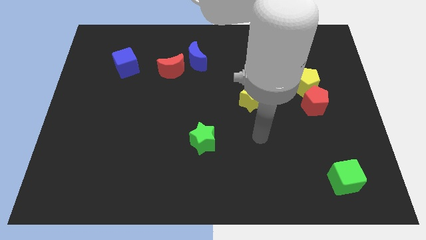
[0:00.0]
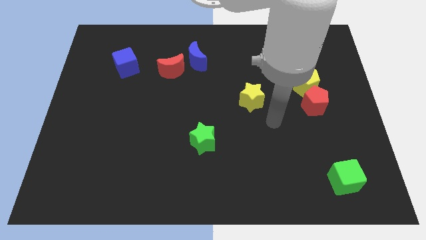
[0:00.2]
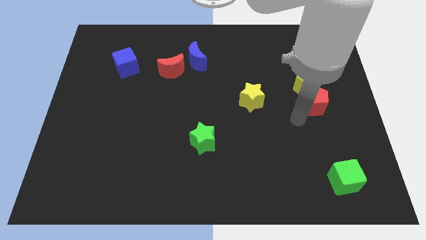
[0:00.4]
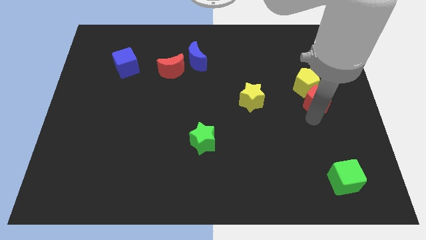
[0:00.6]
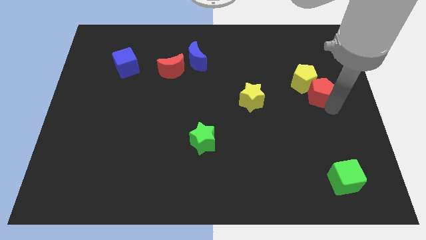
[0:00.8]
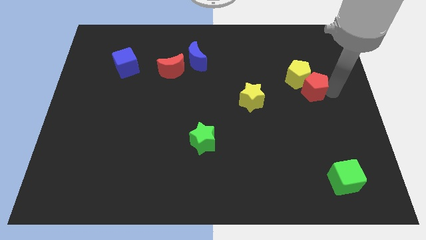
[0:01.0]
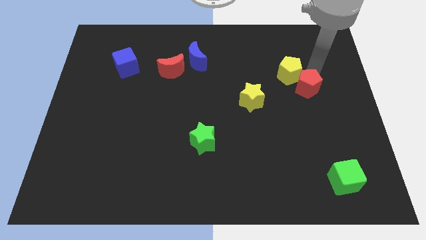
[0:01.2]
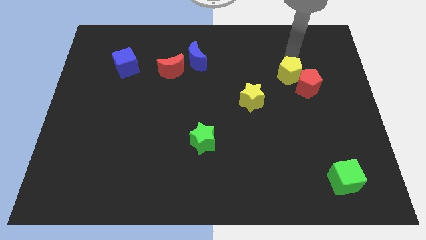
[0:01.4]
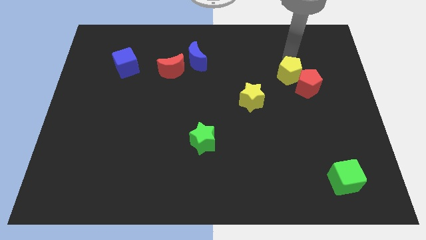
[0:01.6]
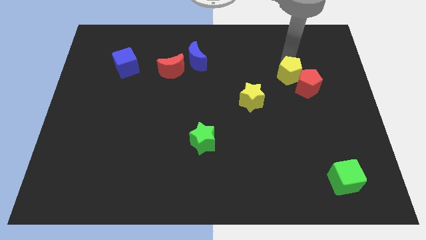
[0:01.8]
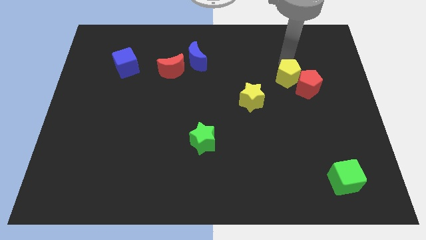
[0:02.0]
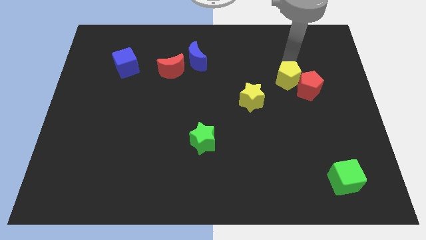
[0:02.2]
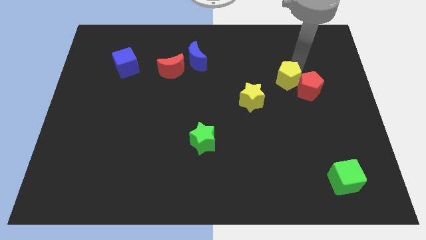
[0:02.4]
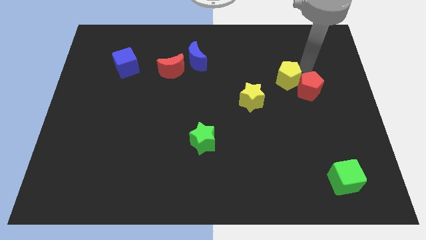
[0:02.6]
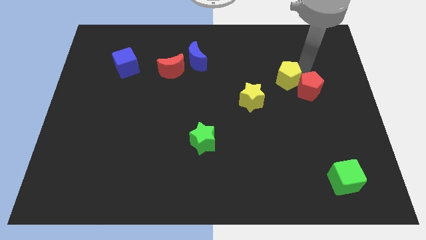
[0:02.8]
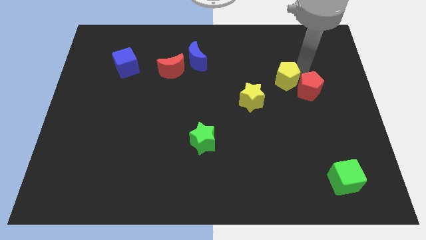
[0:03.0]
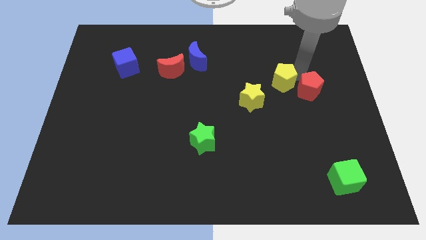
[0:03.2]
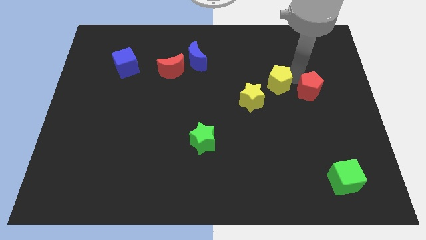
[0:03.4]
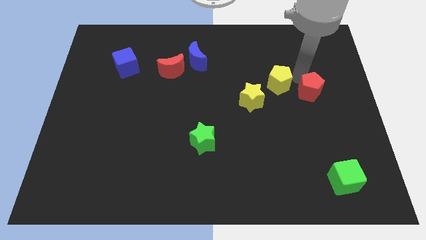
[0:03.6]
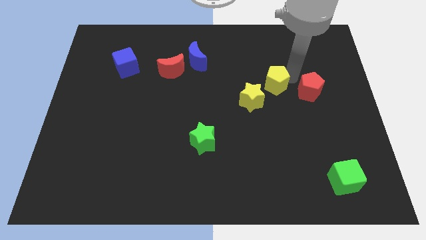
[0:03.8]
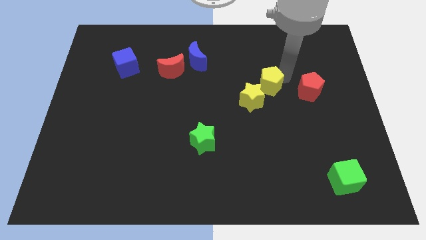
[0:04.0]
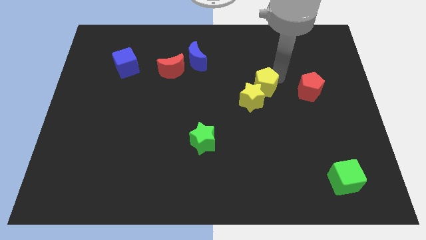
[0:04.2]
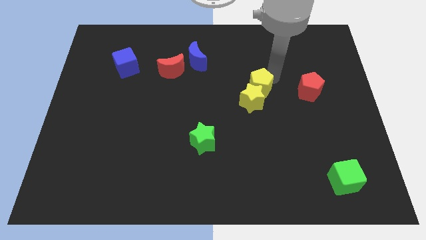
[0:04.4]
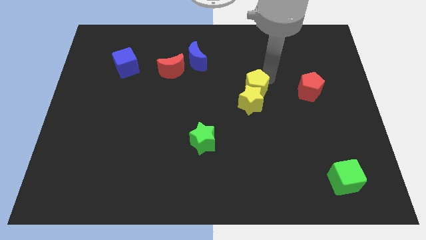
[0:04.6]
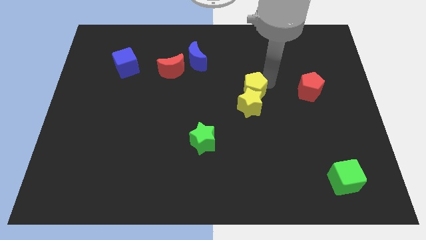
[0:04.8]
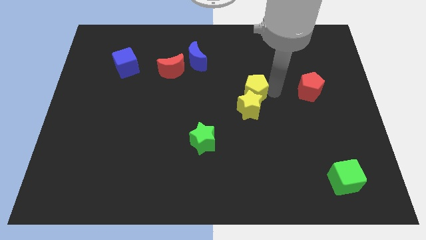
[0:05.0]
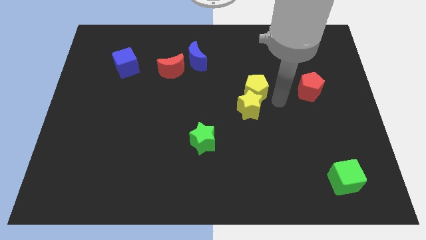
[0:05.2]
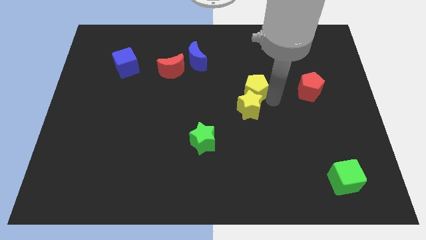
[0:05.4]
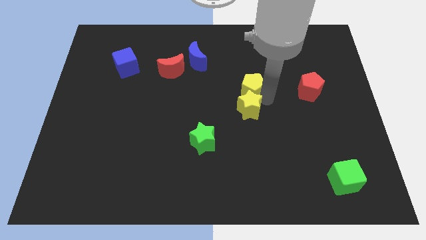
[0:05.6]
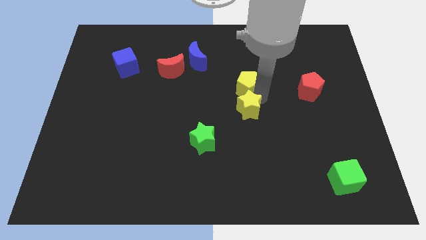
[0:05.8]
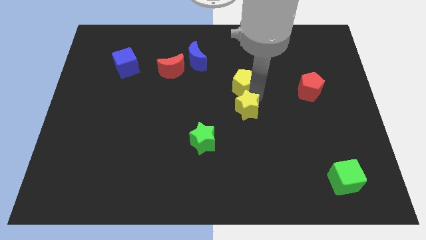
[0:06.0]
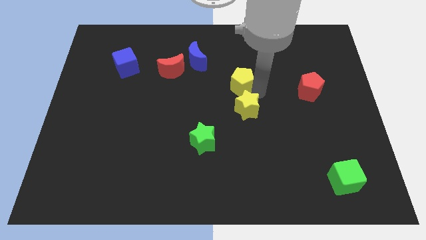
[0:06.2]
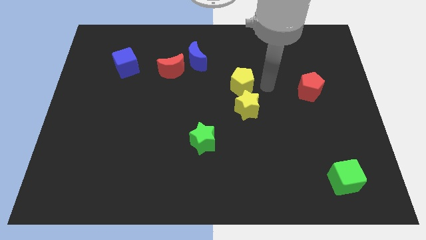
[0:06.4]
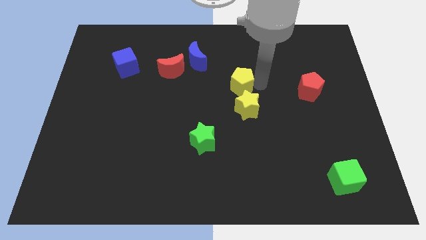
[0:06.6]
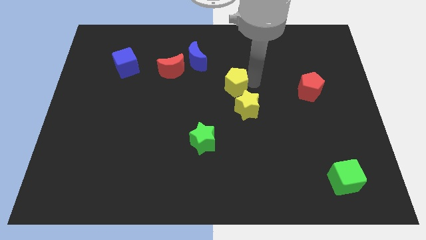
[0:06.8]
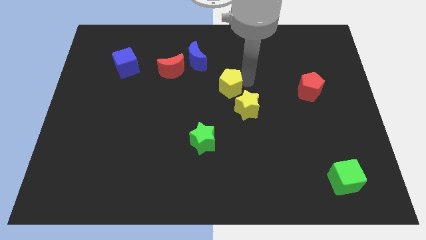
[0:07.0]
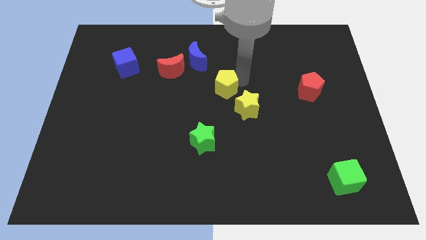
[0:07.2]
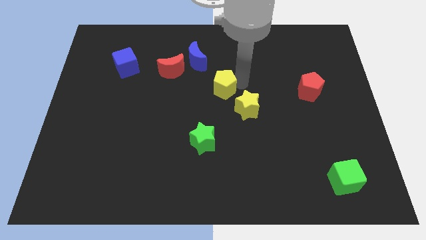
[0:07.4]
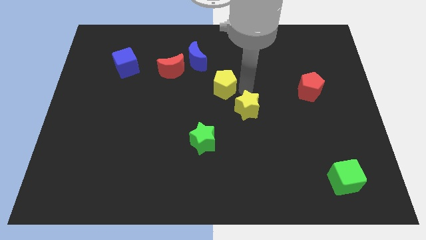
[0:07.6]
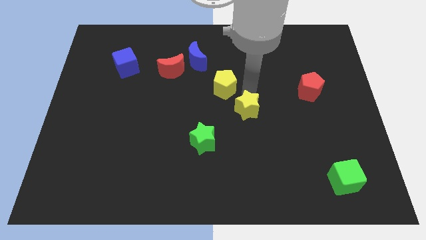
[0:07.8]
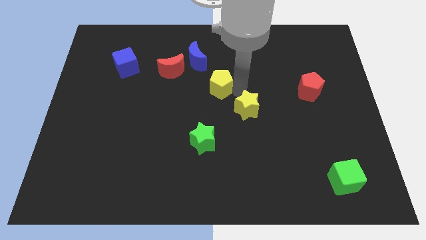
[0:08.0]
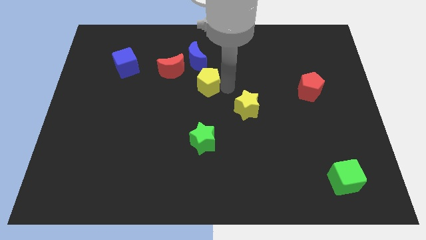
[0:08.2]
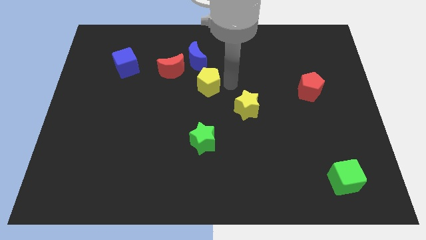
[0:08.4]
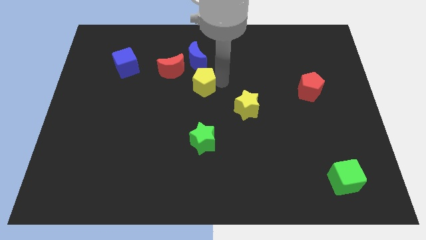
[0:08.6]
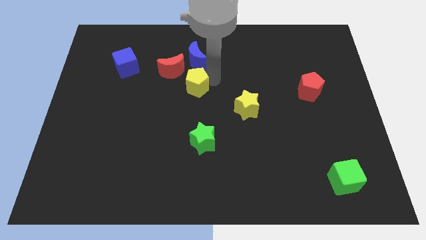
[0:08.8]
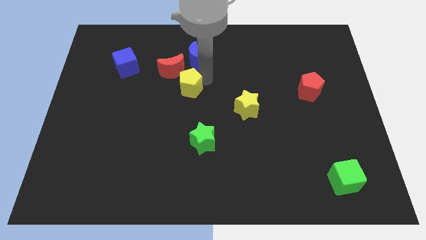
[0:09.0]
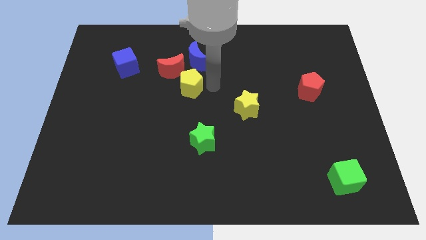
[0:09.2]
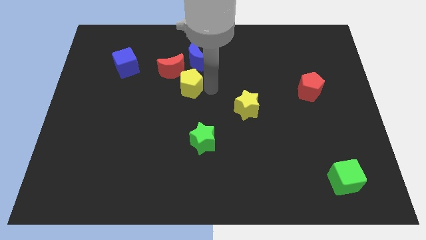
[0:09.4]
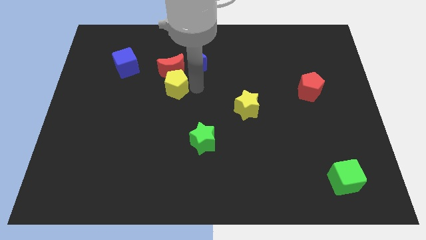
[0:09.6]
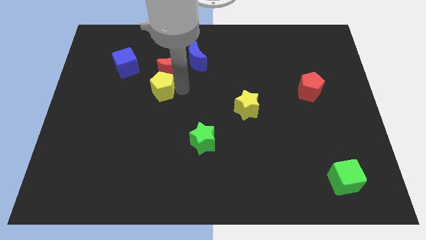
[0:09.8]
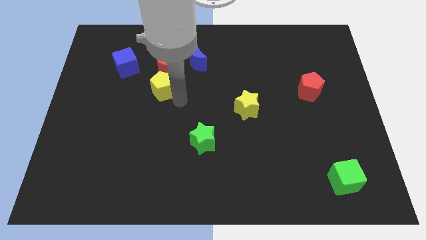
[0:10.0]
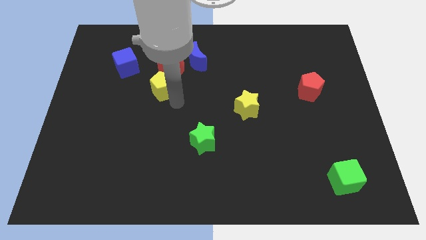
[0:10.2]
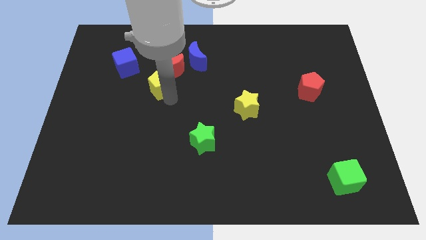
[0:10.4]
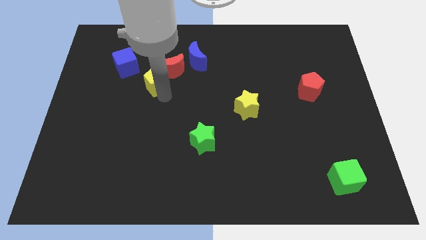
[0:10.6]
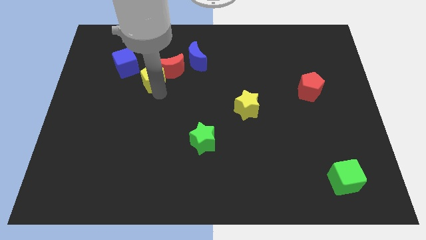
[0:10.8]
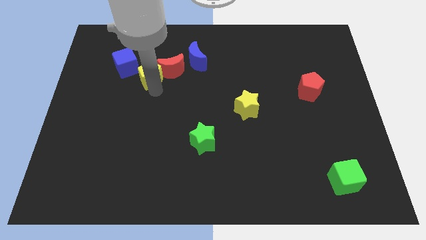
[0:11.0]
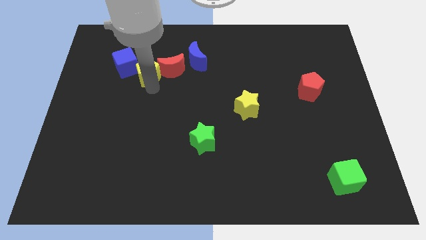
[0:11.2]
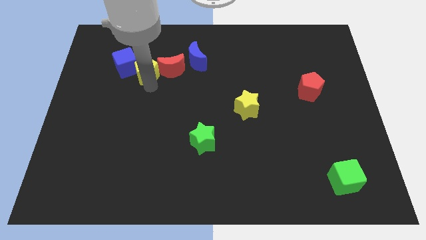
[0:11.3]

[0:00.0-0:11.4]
move the yellow pentagon to the blue cube

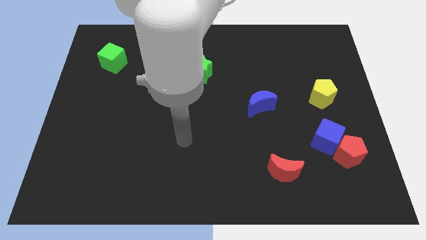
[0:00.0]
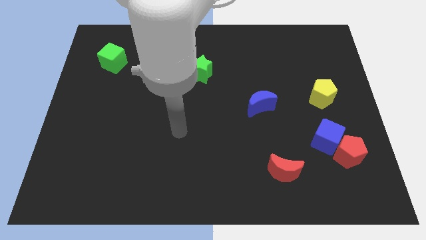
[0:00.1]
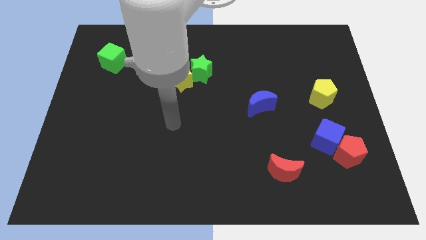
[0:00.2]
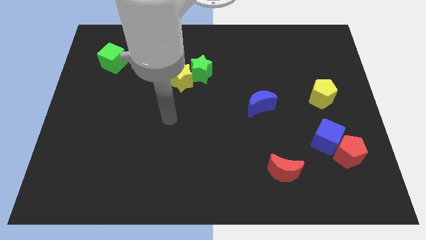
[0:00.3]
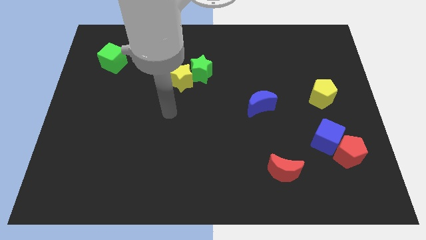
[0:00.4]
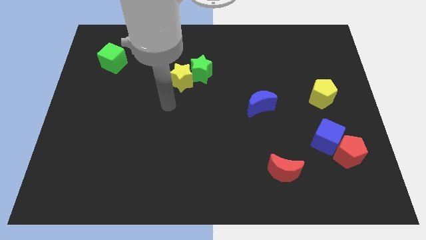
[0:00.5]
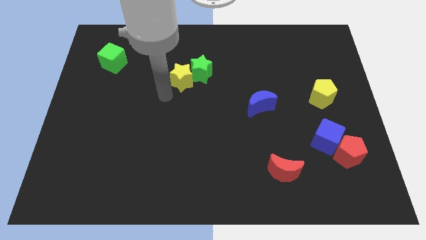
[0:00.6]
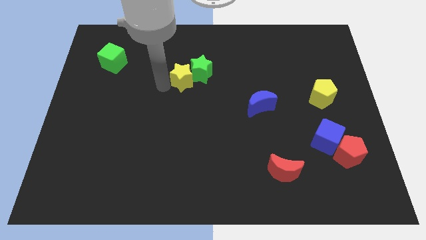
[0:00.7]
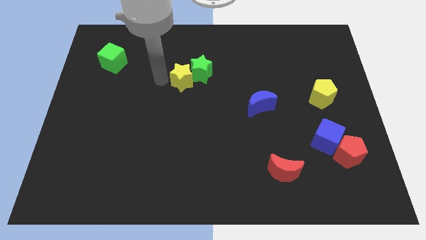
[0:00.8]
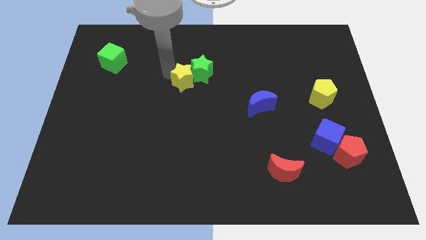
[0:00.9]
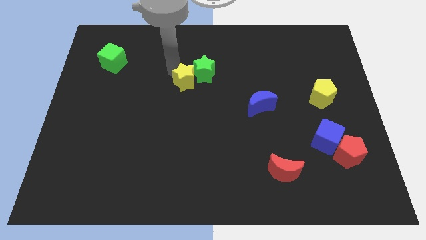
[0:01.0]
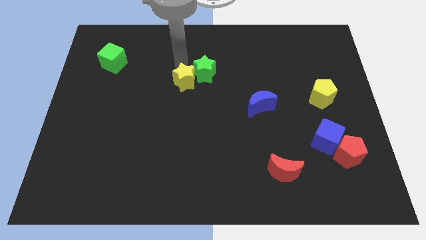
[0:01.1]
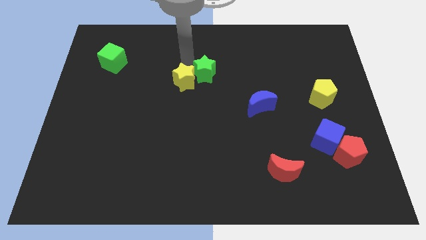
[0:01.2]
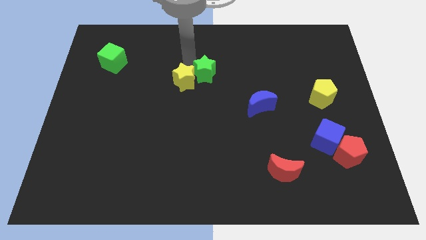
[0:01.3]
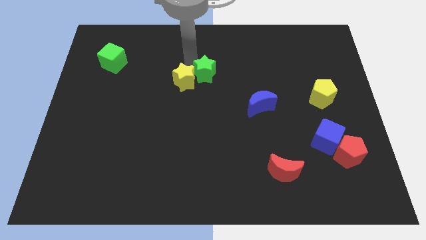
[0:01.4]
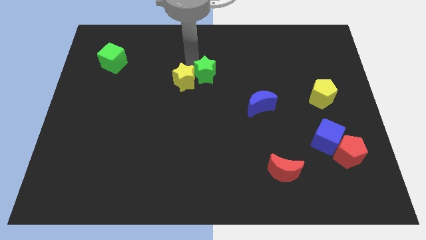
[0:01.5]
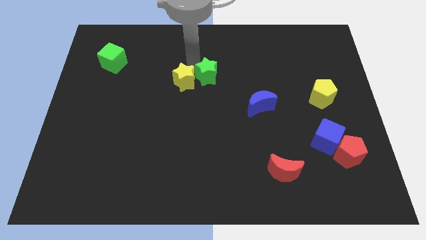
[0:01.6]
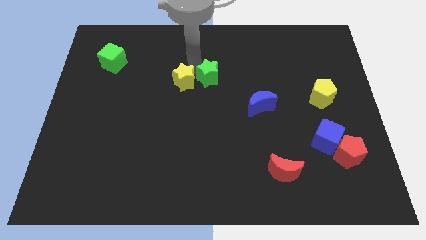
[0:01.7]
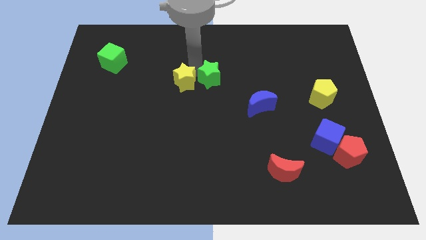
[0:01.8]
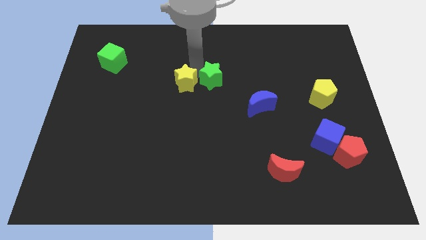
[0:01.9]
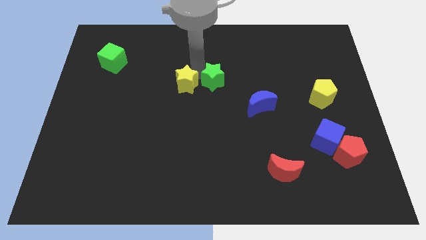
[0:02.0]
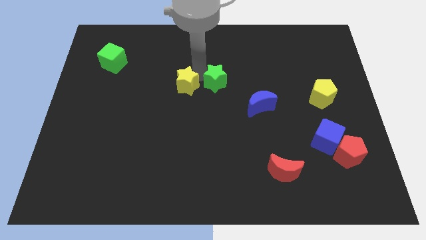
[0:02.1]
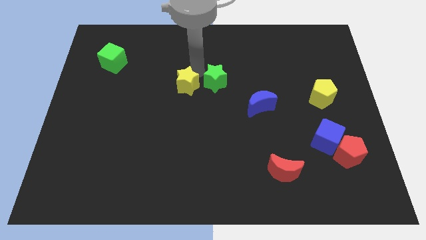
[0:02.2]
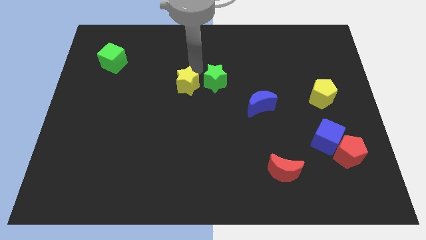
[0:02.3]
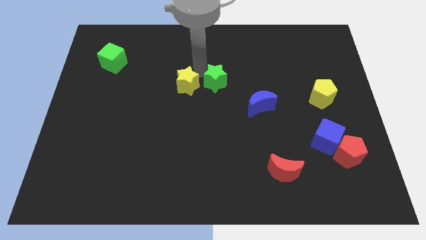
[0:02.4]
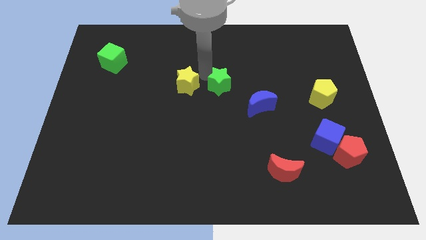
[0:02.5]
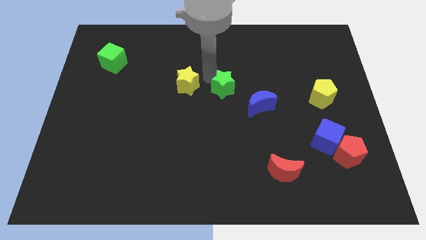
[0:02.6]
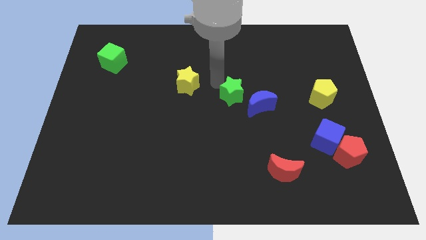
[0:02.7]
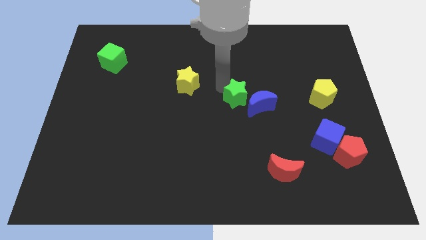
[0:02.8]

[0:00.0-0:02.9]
move the green star to the blue moon
